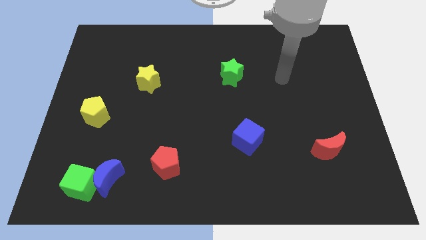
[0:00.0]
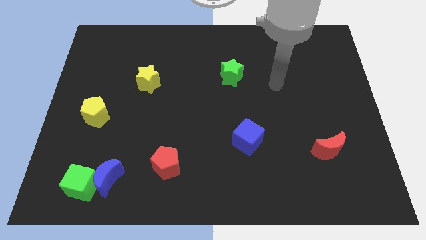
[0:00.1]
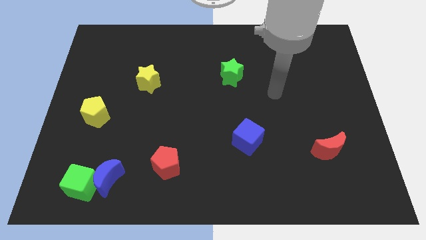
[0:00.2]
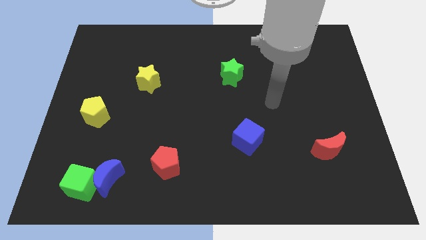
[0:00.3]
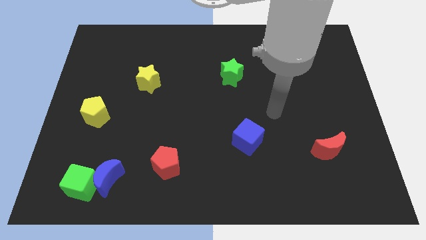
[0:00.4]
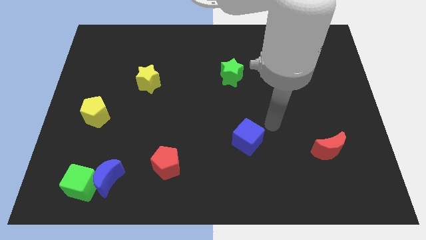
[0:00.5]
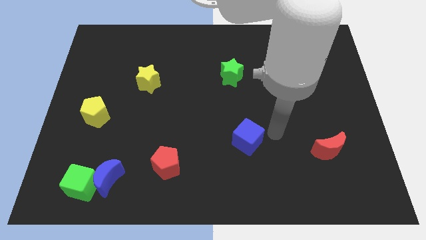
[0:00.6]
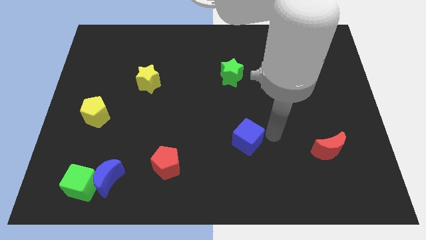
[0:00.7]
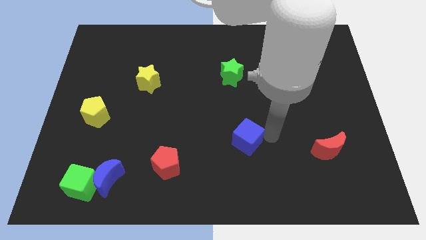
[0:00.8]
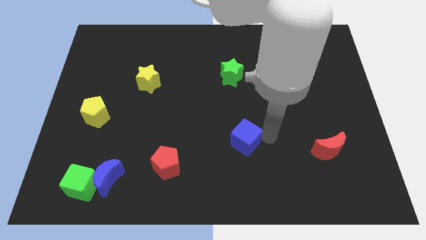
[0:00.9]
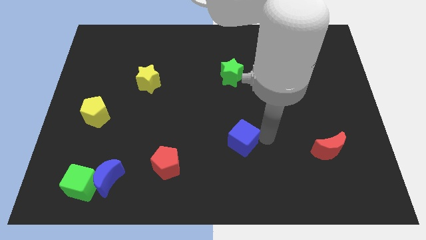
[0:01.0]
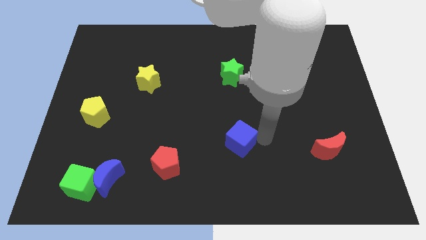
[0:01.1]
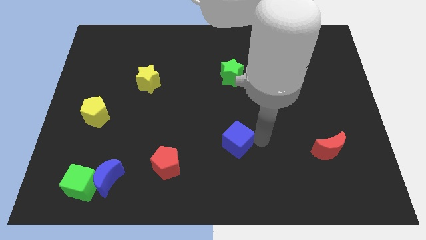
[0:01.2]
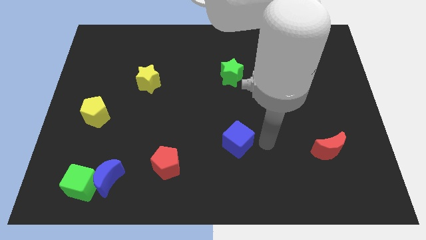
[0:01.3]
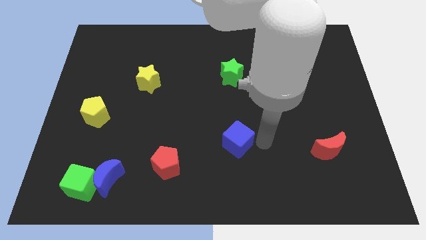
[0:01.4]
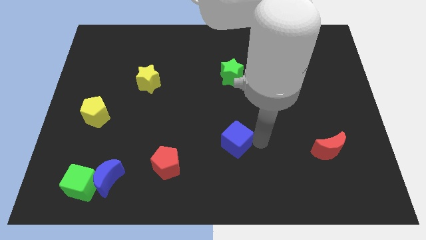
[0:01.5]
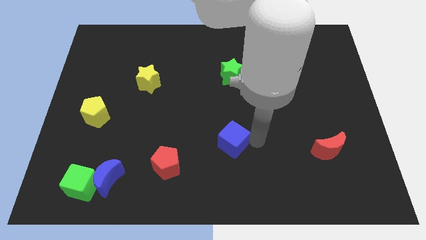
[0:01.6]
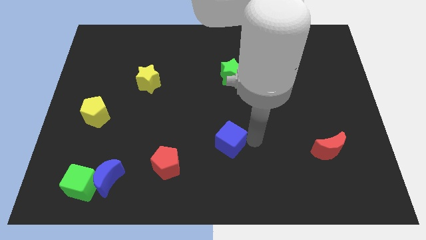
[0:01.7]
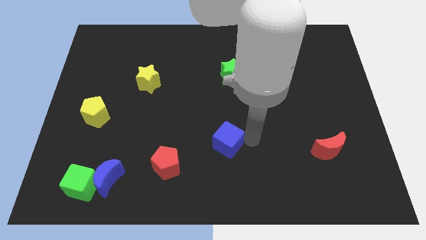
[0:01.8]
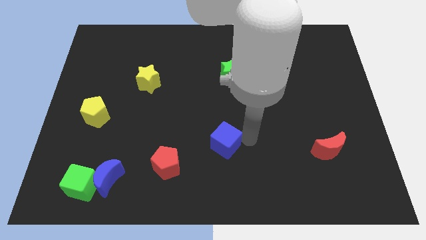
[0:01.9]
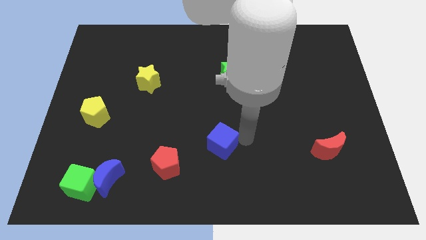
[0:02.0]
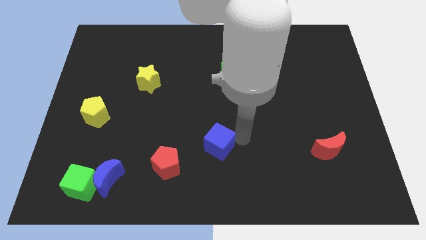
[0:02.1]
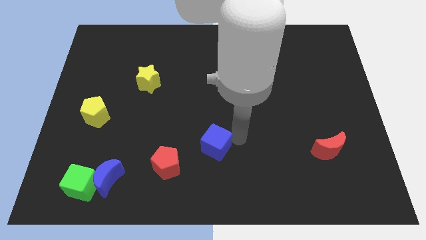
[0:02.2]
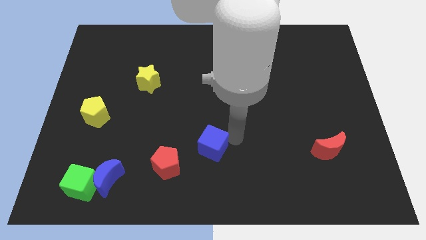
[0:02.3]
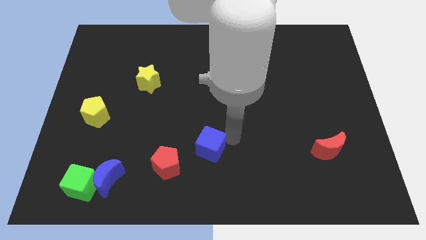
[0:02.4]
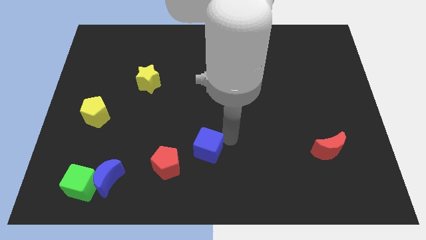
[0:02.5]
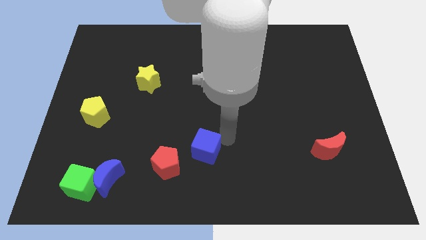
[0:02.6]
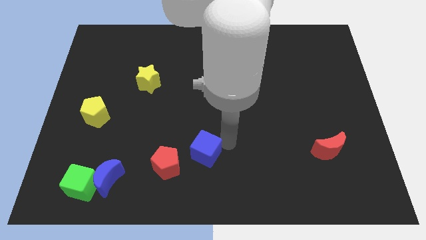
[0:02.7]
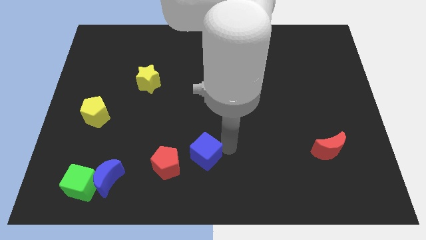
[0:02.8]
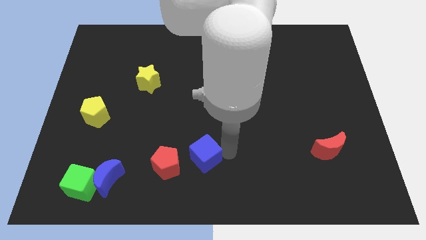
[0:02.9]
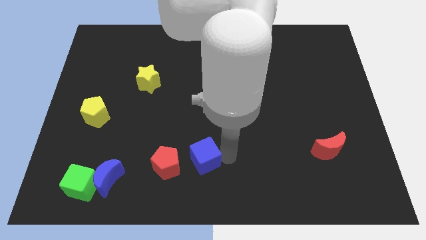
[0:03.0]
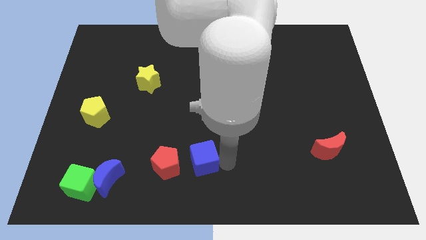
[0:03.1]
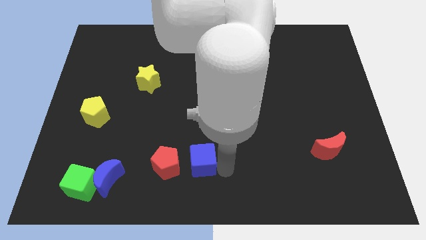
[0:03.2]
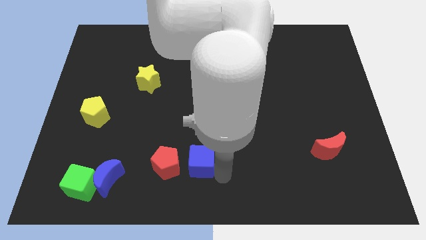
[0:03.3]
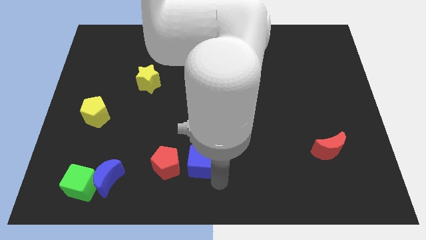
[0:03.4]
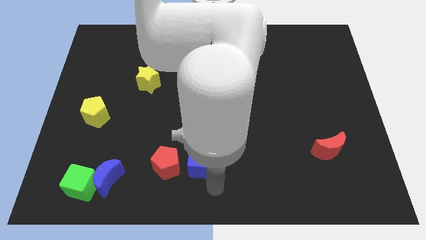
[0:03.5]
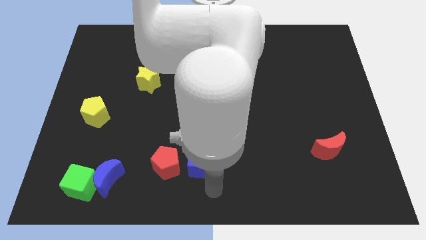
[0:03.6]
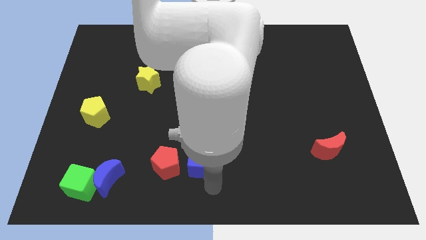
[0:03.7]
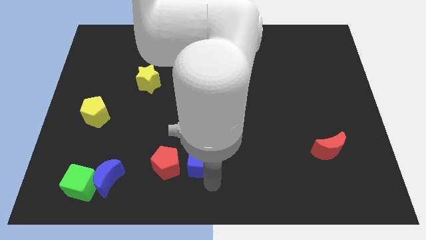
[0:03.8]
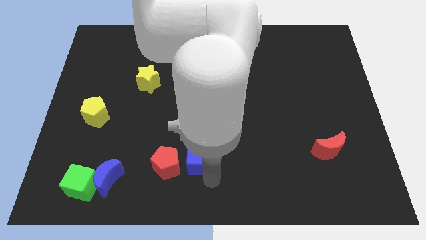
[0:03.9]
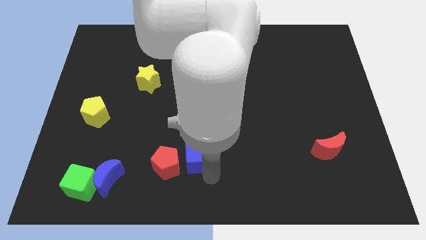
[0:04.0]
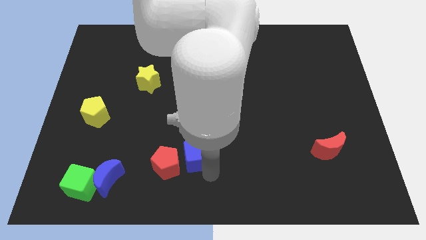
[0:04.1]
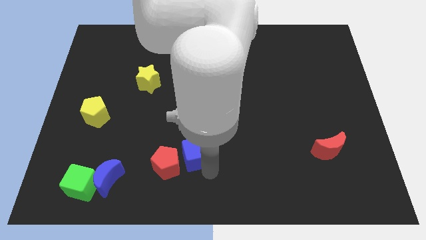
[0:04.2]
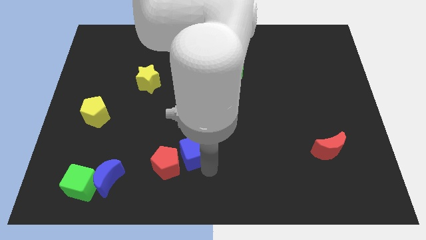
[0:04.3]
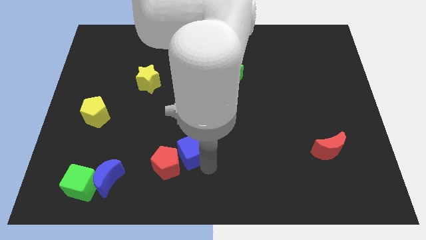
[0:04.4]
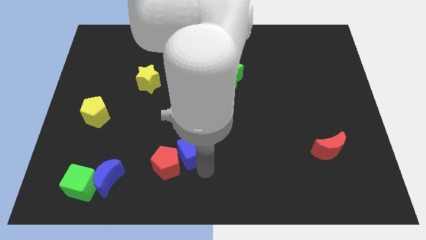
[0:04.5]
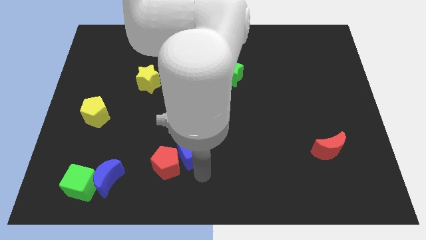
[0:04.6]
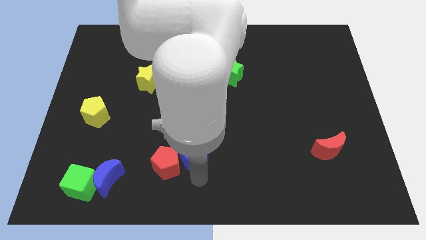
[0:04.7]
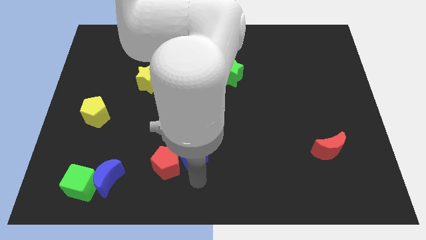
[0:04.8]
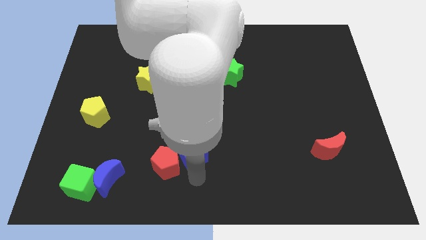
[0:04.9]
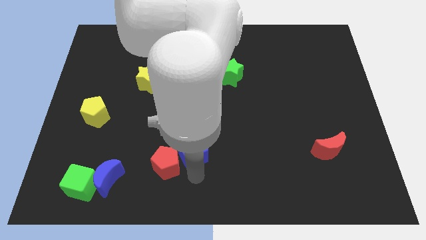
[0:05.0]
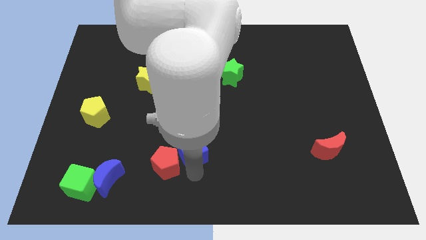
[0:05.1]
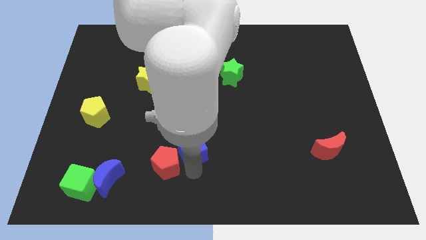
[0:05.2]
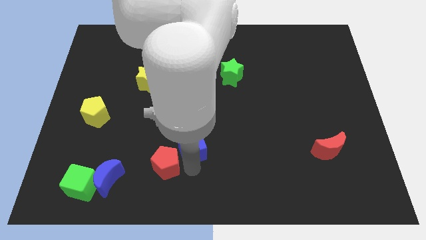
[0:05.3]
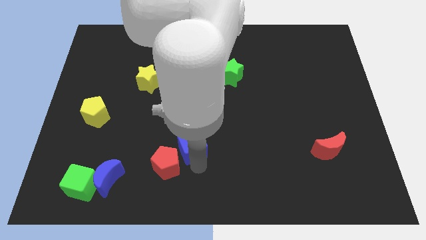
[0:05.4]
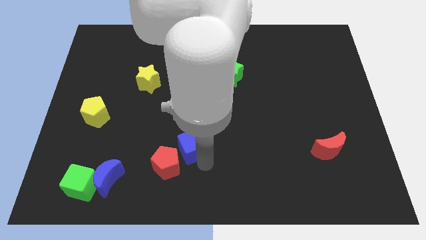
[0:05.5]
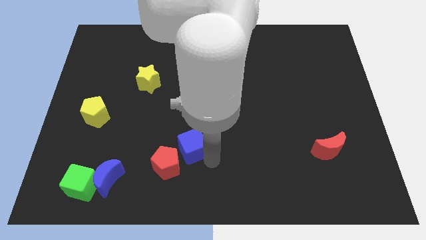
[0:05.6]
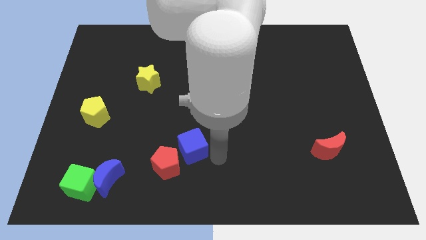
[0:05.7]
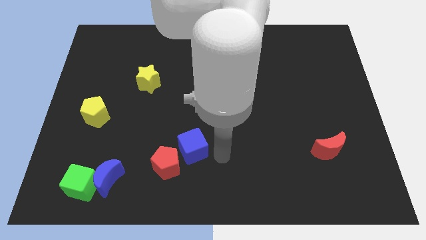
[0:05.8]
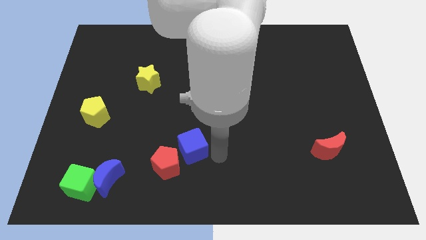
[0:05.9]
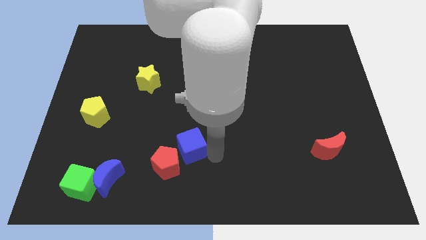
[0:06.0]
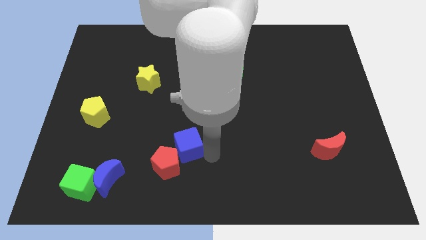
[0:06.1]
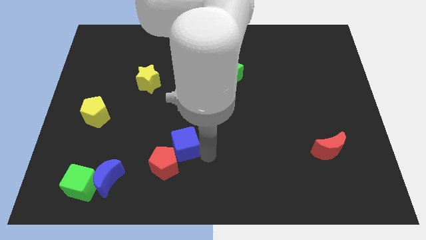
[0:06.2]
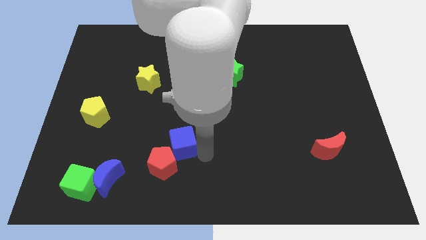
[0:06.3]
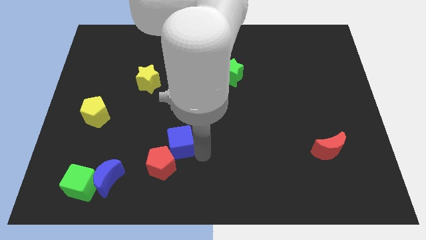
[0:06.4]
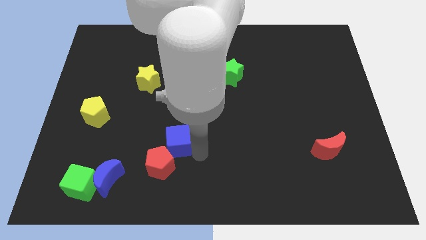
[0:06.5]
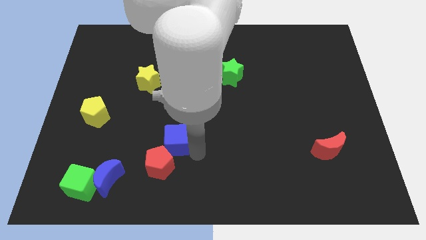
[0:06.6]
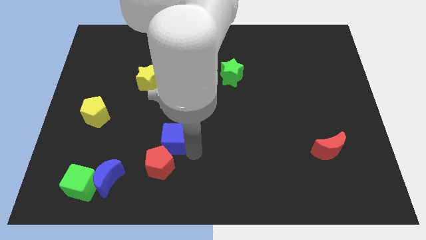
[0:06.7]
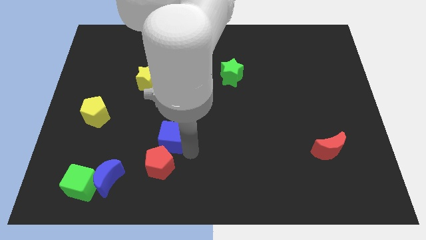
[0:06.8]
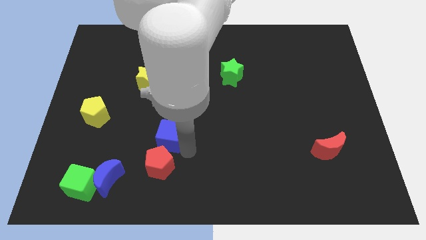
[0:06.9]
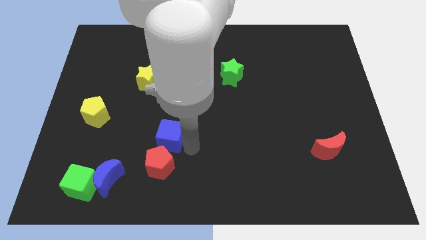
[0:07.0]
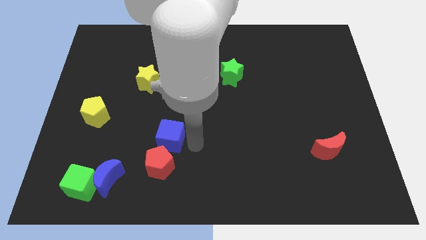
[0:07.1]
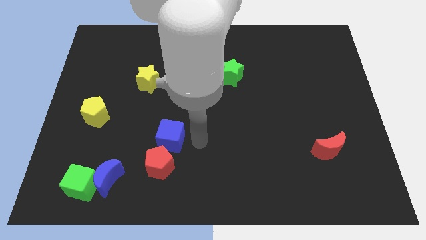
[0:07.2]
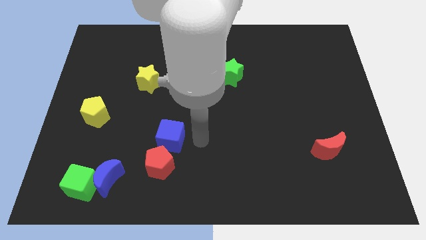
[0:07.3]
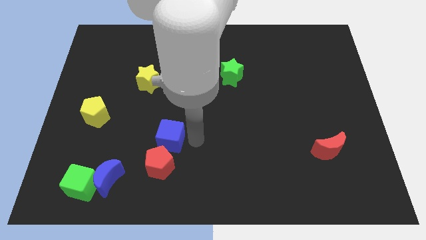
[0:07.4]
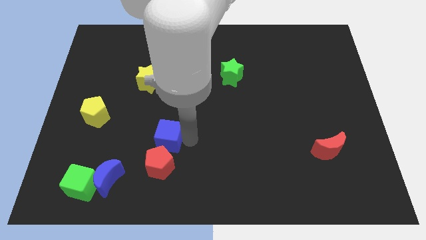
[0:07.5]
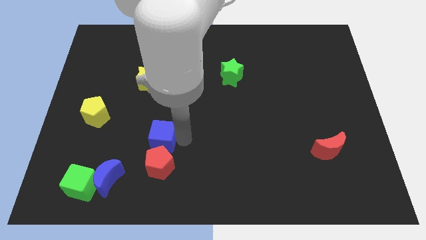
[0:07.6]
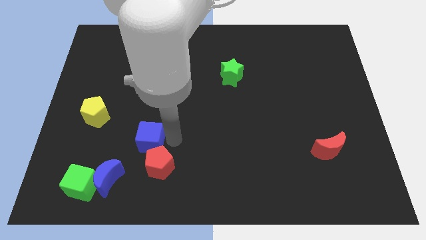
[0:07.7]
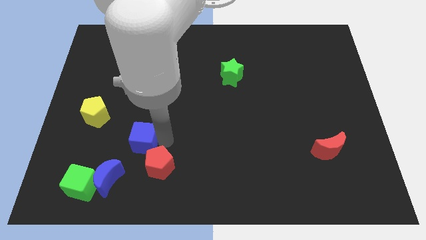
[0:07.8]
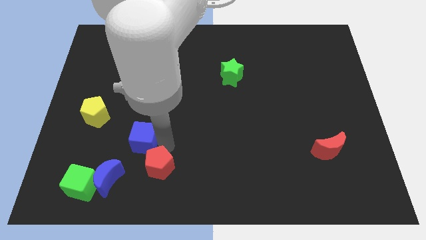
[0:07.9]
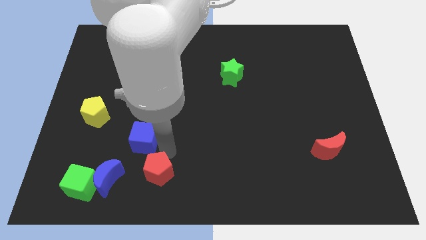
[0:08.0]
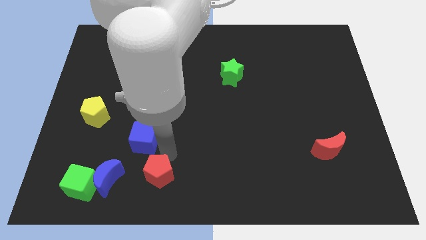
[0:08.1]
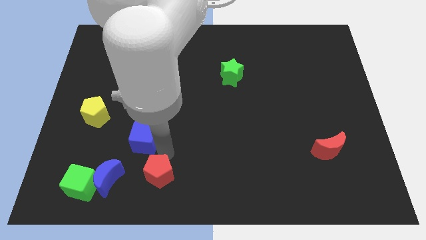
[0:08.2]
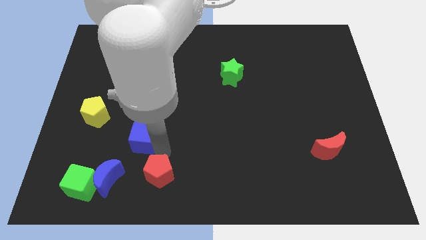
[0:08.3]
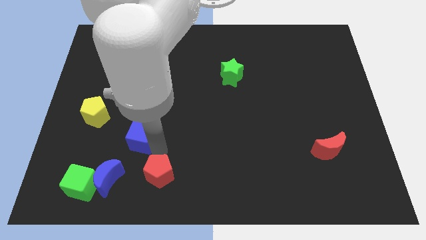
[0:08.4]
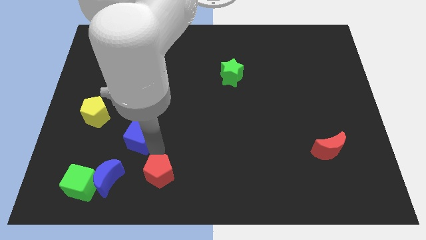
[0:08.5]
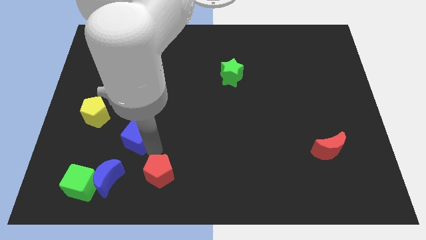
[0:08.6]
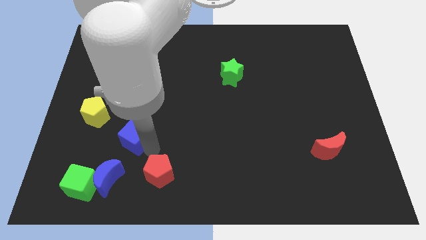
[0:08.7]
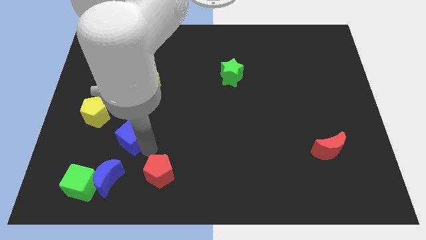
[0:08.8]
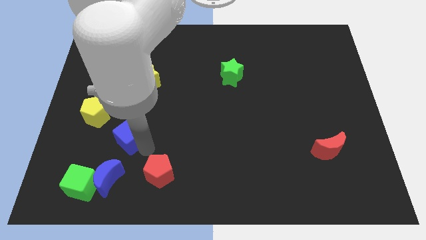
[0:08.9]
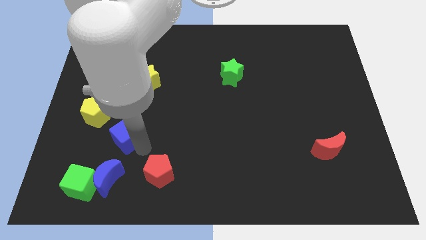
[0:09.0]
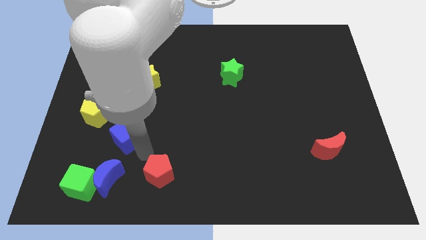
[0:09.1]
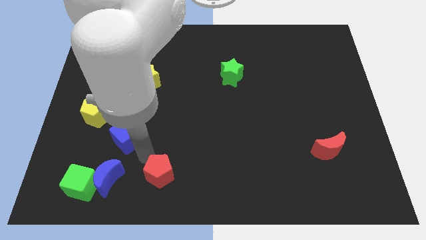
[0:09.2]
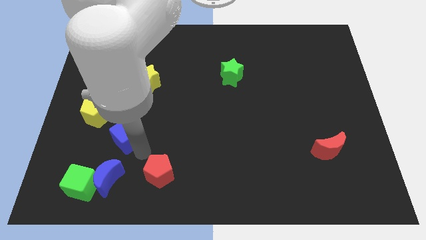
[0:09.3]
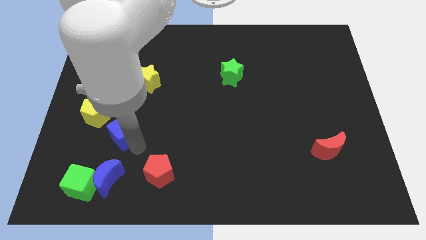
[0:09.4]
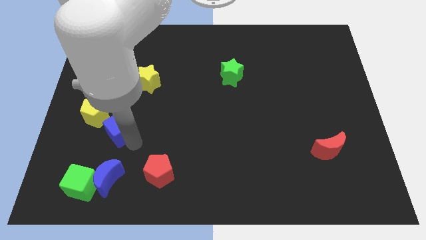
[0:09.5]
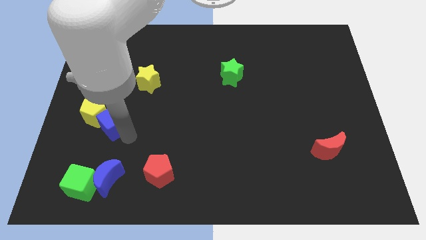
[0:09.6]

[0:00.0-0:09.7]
slide the blue cube close to the yellow pentagon
